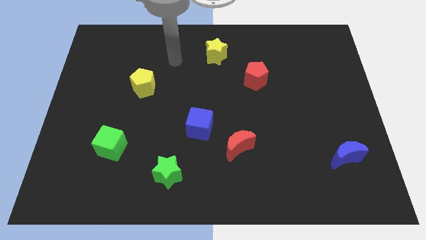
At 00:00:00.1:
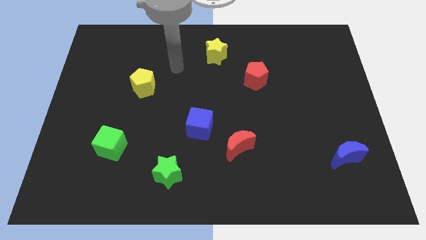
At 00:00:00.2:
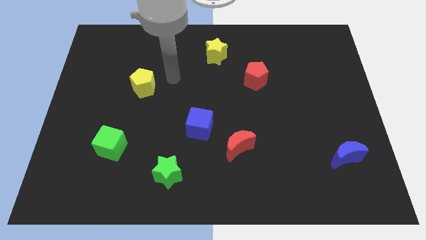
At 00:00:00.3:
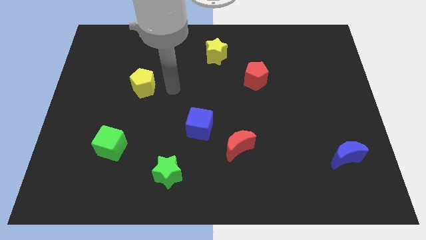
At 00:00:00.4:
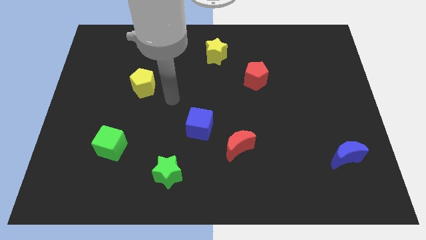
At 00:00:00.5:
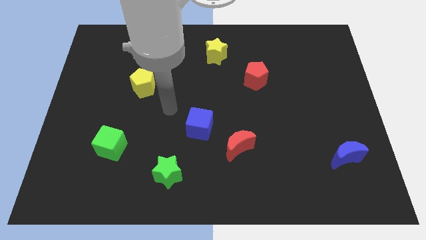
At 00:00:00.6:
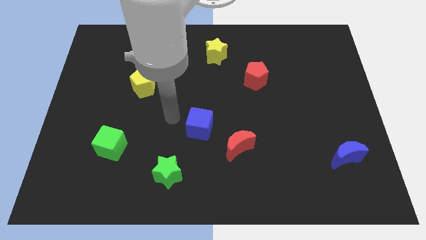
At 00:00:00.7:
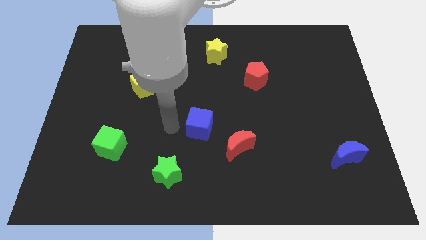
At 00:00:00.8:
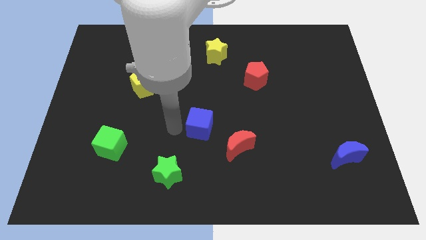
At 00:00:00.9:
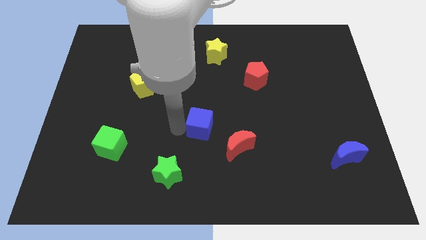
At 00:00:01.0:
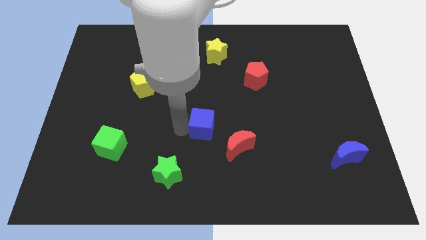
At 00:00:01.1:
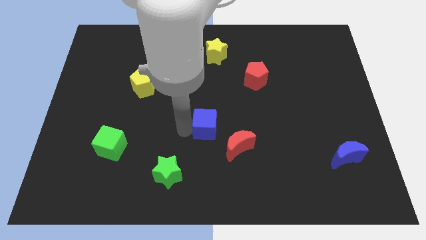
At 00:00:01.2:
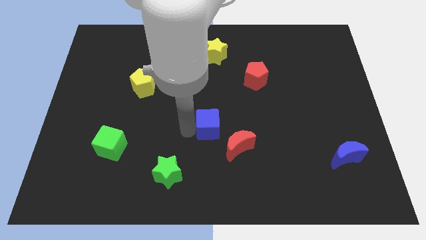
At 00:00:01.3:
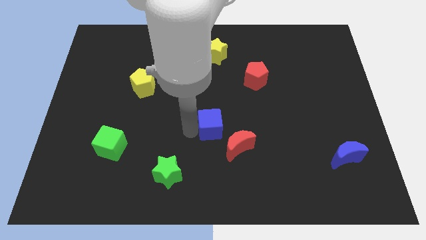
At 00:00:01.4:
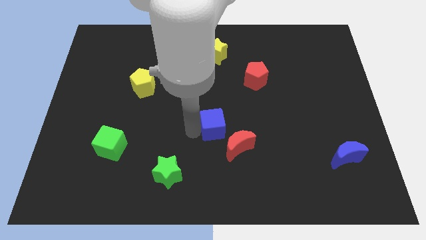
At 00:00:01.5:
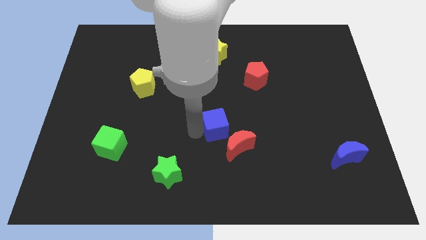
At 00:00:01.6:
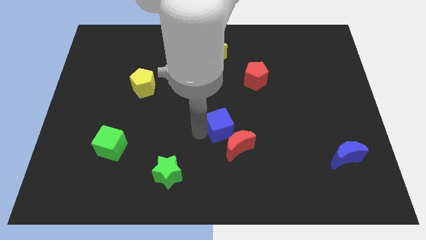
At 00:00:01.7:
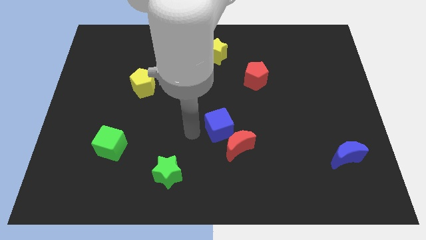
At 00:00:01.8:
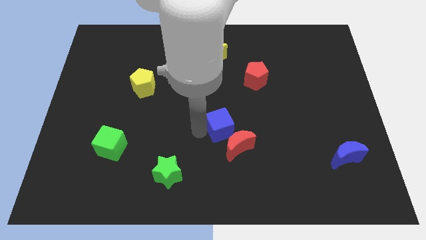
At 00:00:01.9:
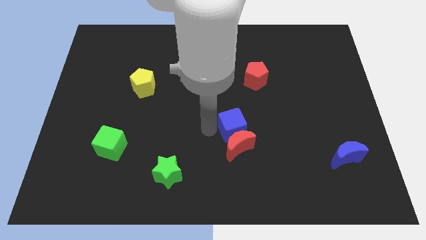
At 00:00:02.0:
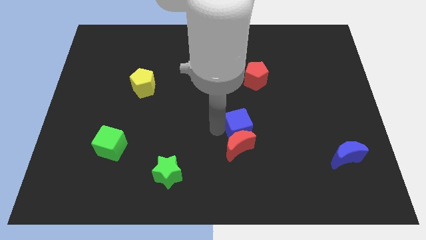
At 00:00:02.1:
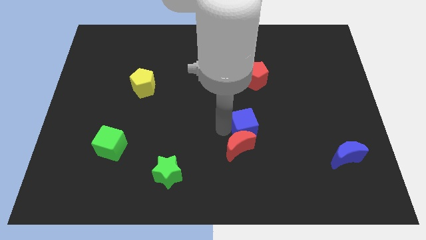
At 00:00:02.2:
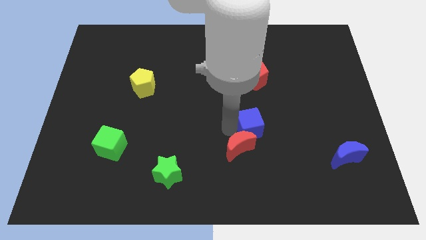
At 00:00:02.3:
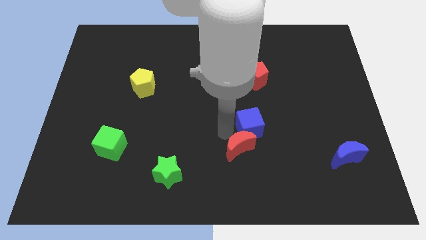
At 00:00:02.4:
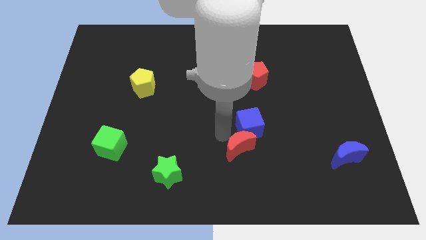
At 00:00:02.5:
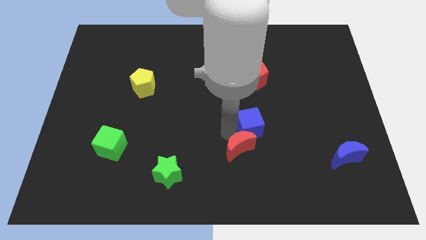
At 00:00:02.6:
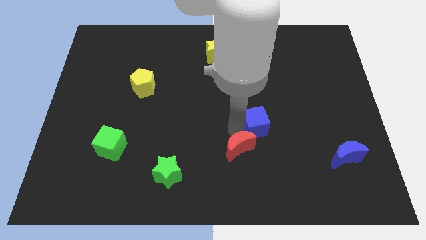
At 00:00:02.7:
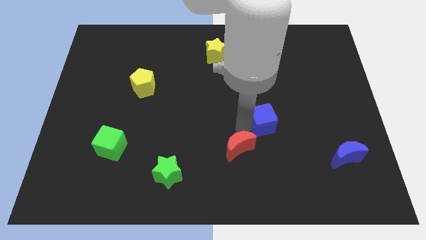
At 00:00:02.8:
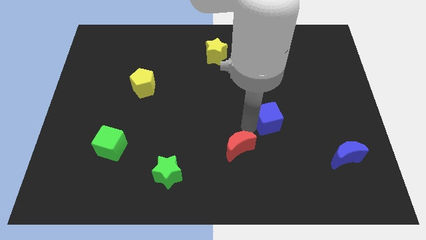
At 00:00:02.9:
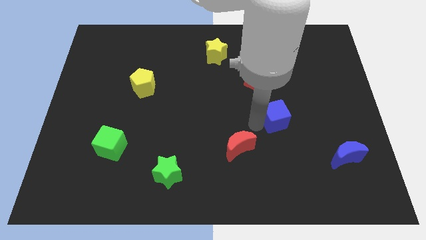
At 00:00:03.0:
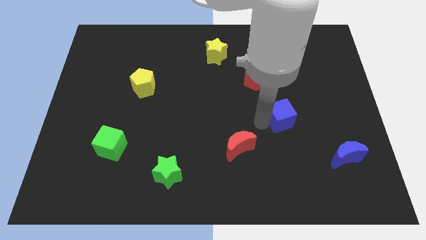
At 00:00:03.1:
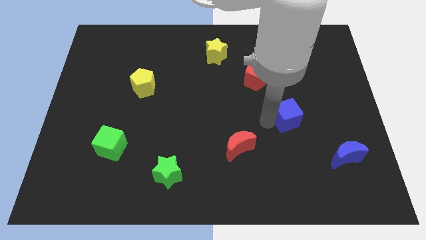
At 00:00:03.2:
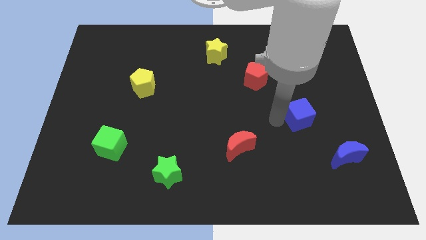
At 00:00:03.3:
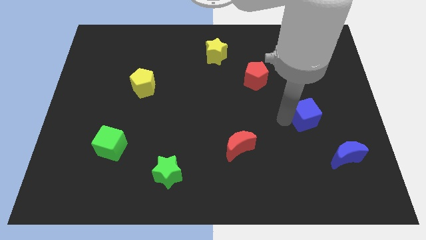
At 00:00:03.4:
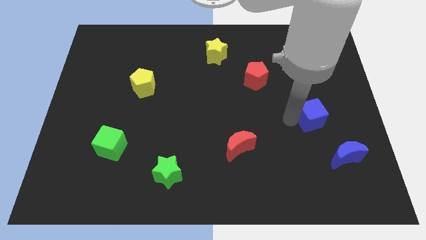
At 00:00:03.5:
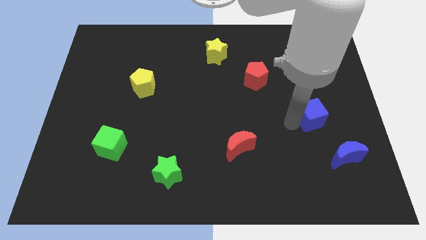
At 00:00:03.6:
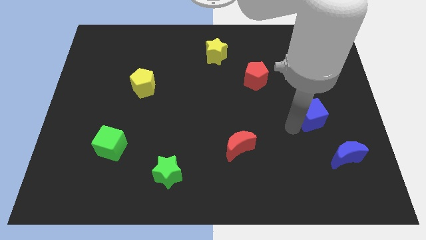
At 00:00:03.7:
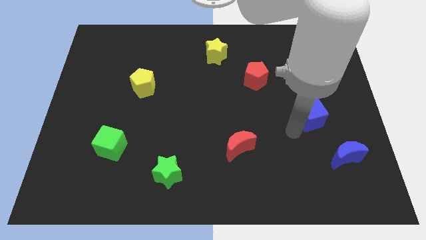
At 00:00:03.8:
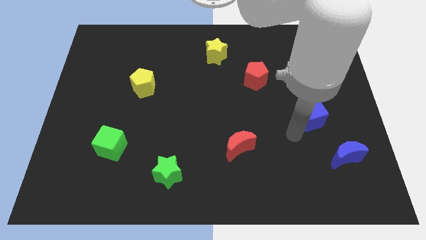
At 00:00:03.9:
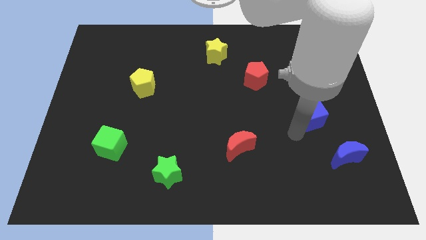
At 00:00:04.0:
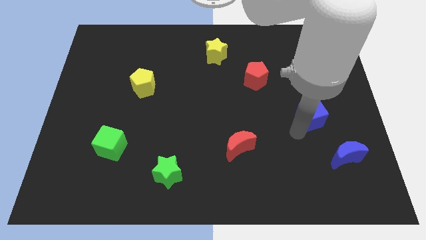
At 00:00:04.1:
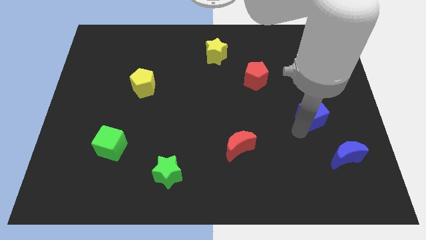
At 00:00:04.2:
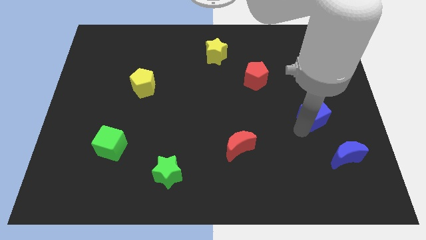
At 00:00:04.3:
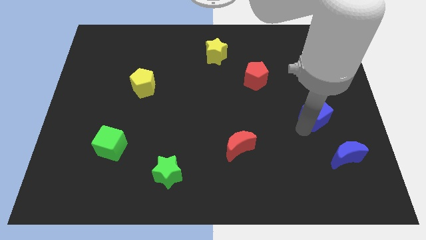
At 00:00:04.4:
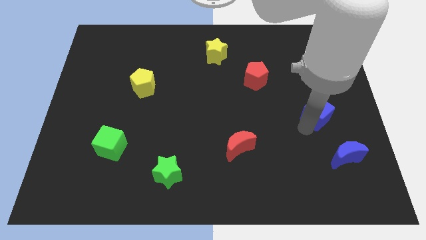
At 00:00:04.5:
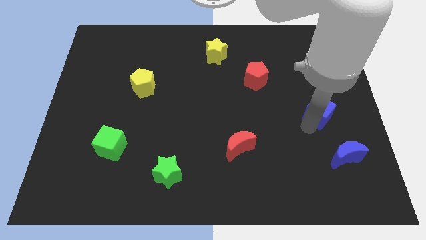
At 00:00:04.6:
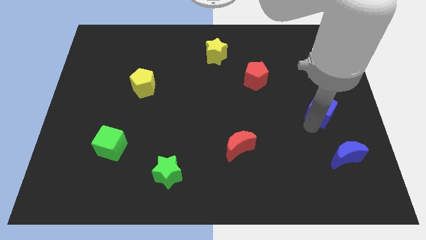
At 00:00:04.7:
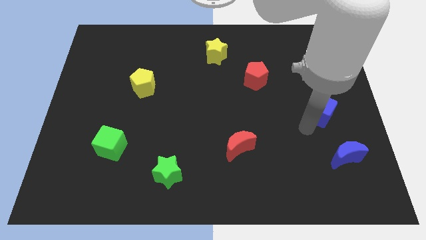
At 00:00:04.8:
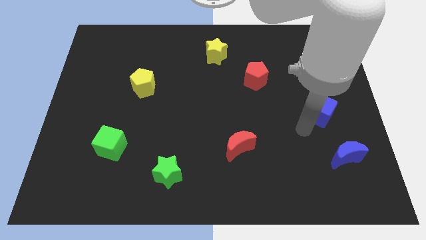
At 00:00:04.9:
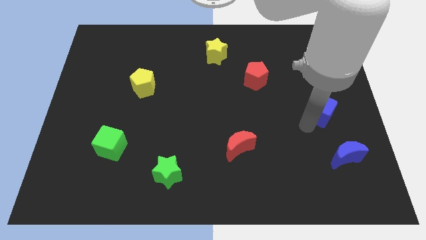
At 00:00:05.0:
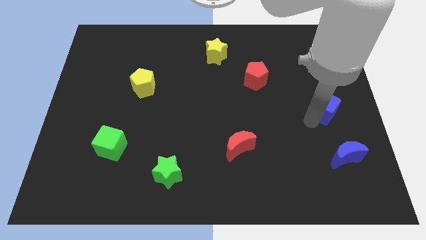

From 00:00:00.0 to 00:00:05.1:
push the blue cube to the right side of the board
